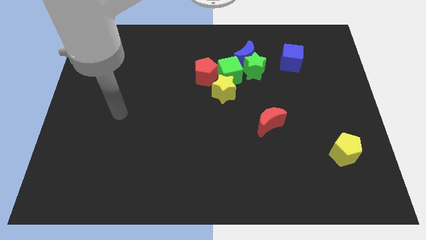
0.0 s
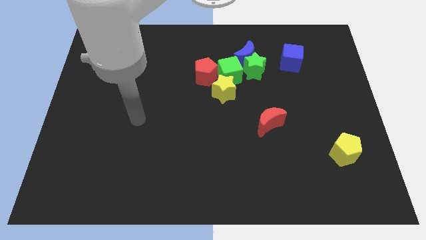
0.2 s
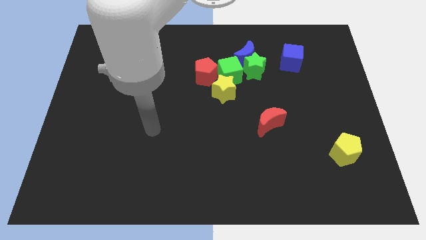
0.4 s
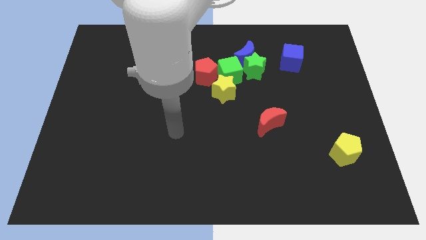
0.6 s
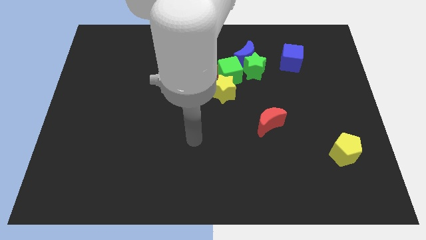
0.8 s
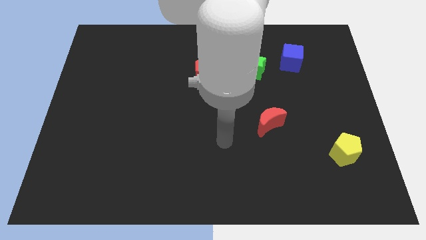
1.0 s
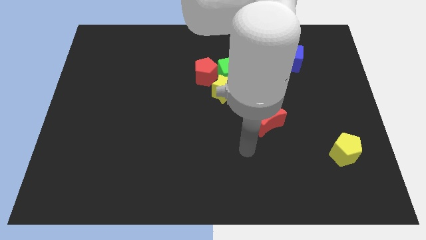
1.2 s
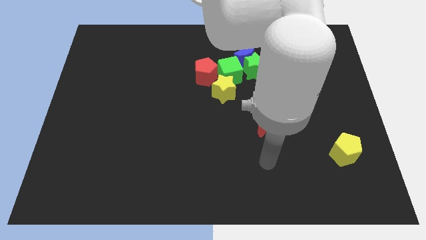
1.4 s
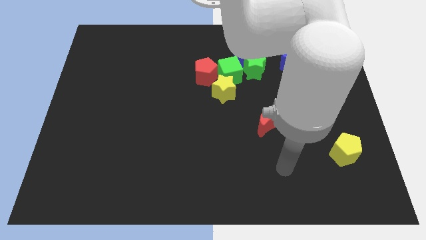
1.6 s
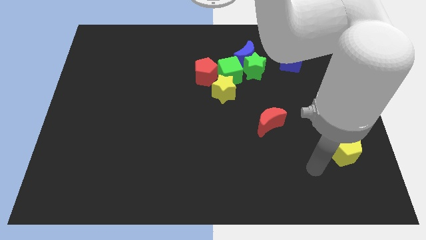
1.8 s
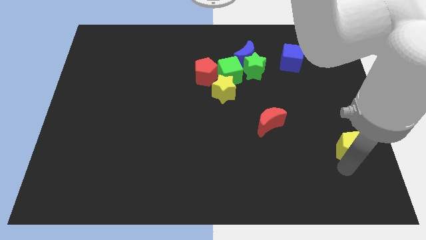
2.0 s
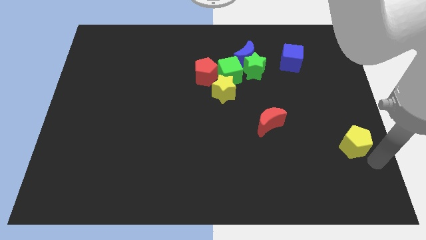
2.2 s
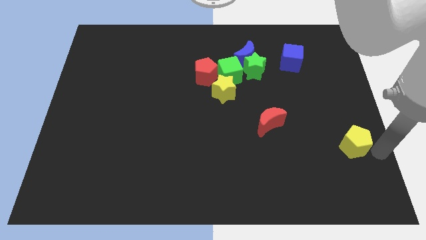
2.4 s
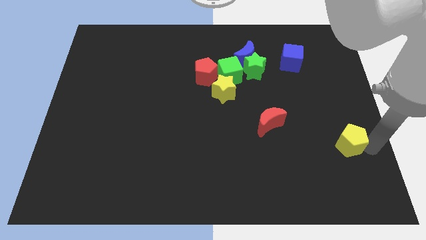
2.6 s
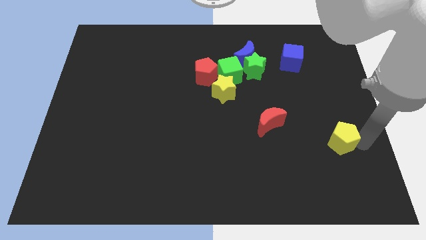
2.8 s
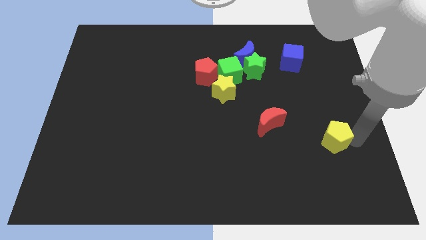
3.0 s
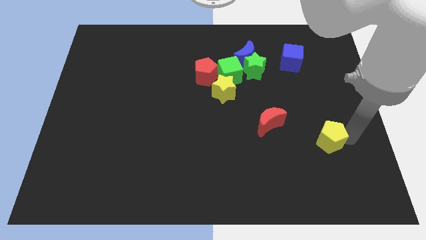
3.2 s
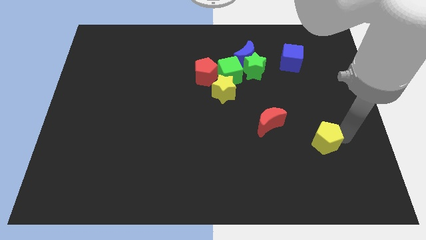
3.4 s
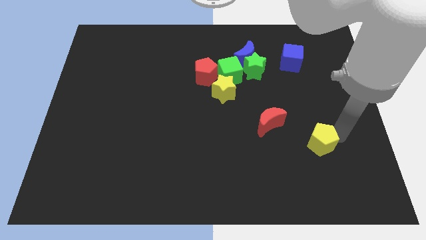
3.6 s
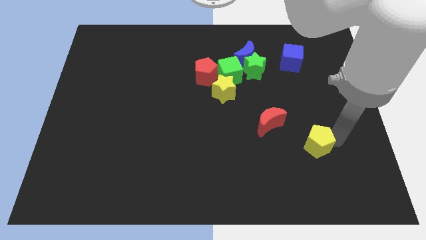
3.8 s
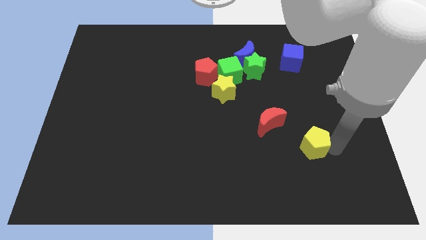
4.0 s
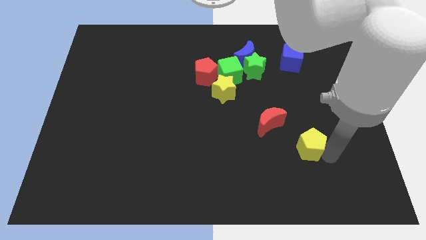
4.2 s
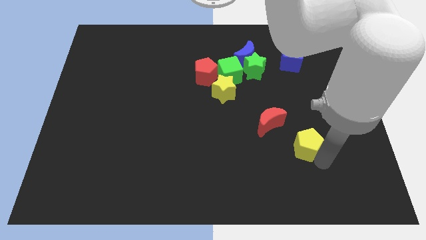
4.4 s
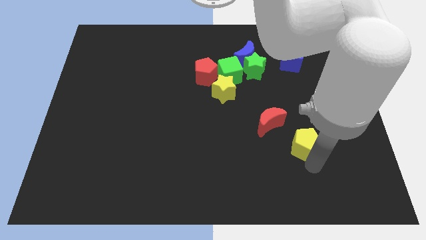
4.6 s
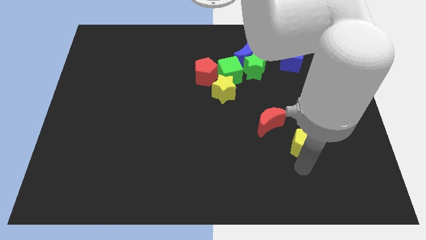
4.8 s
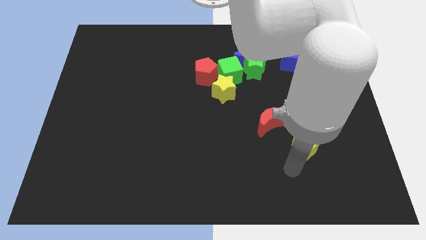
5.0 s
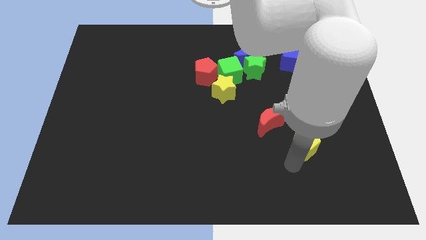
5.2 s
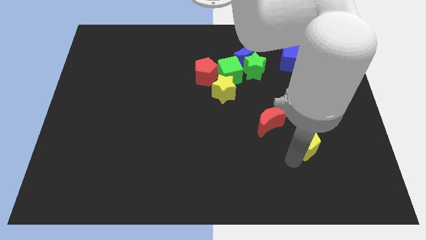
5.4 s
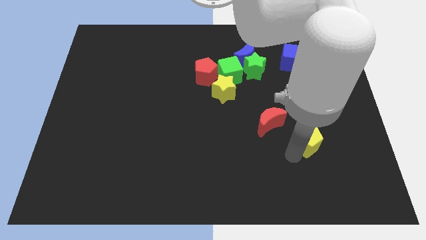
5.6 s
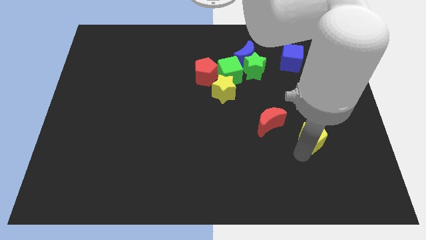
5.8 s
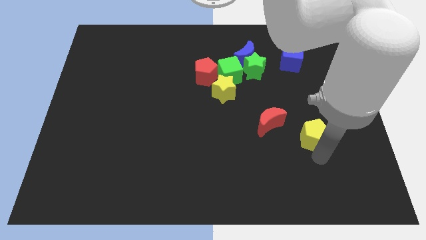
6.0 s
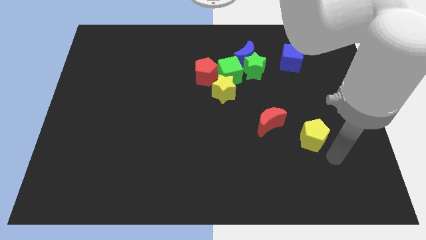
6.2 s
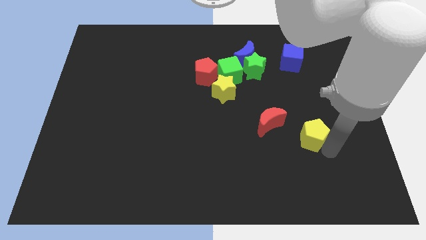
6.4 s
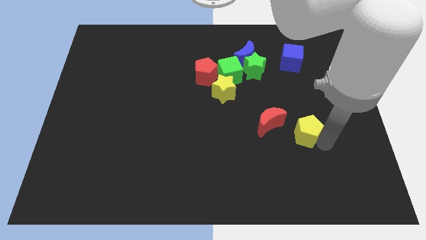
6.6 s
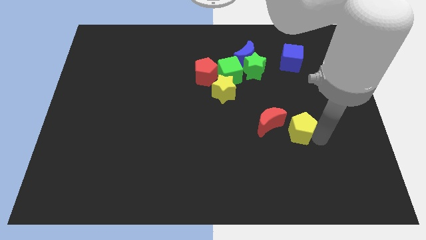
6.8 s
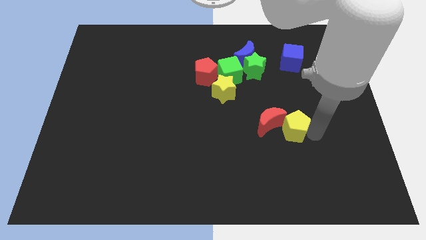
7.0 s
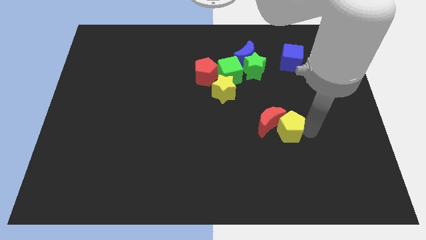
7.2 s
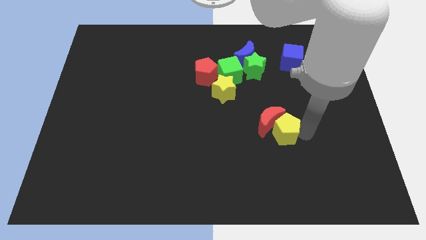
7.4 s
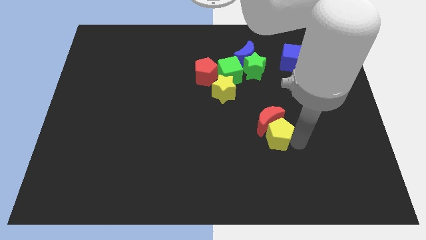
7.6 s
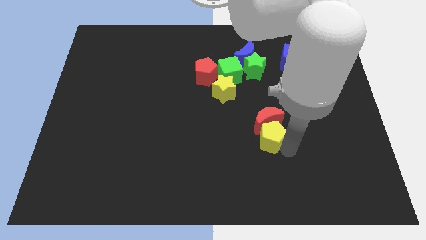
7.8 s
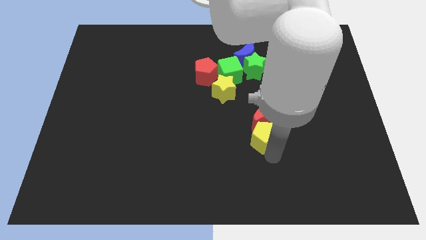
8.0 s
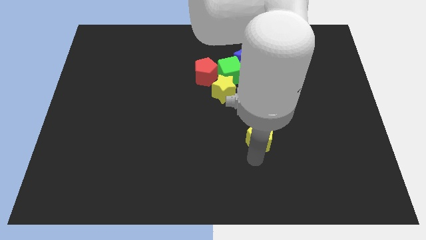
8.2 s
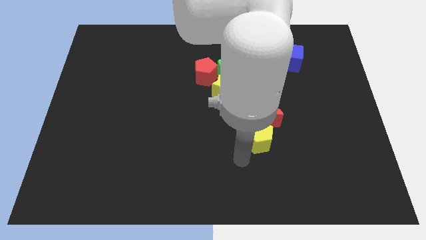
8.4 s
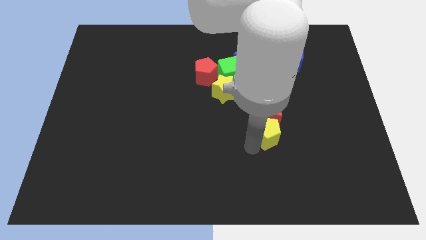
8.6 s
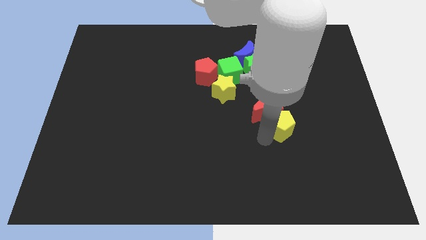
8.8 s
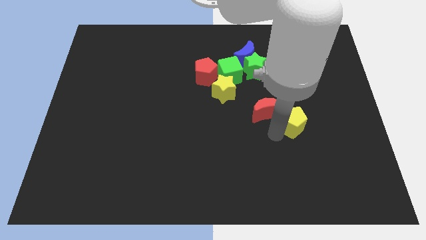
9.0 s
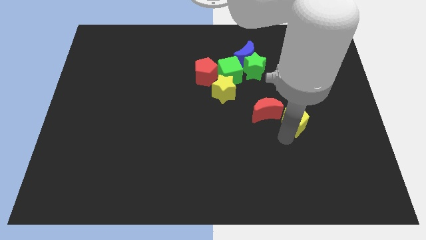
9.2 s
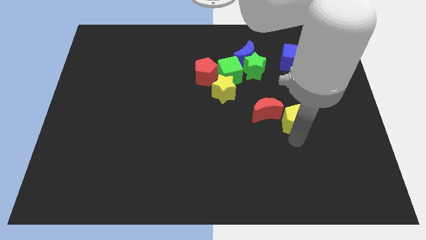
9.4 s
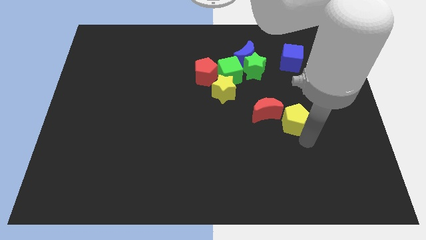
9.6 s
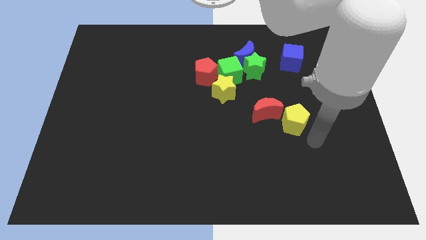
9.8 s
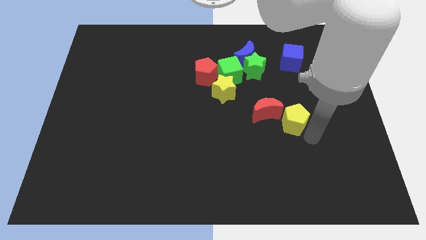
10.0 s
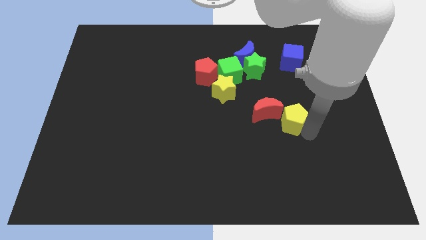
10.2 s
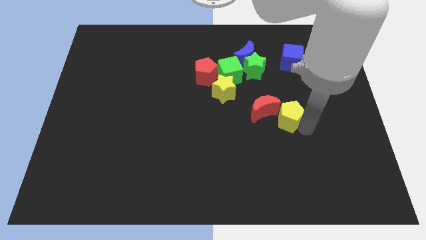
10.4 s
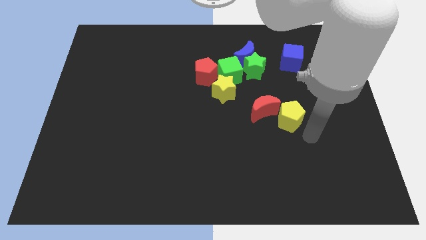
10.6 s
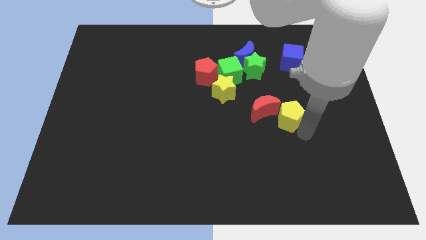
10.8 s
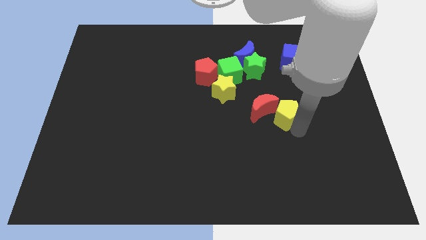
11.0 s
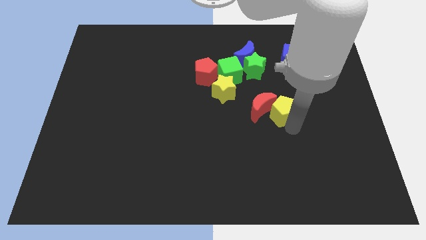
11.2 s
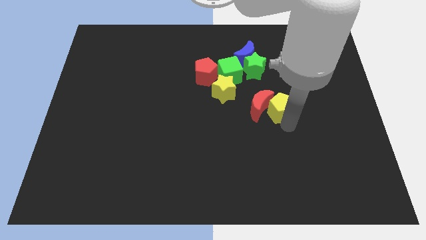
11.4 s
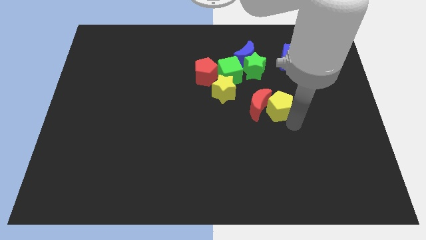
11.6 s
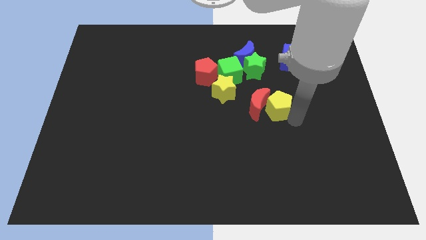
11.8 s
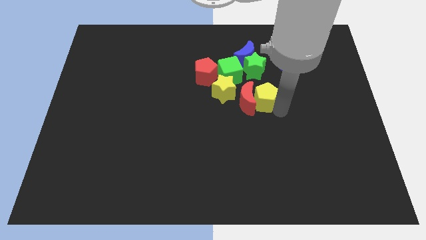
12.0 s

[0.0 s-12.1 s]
slide the yellow pentagon to the bottom of the blue moon

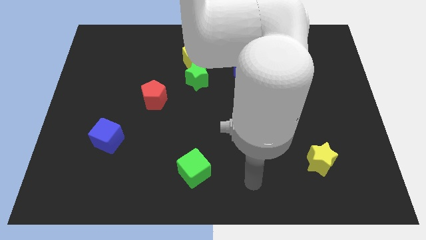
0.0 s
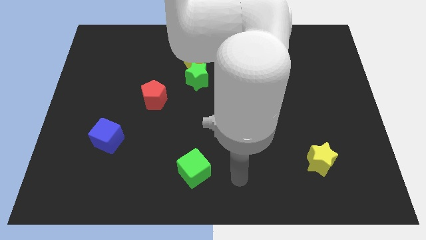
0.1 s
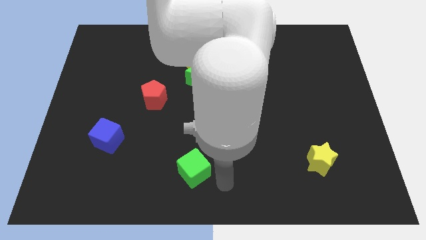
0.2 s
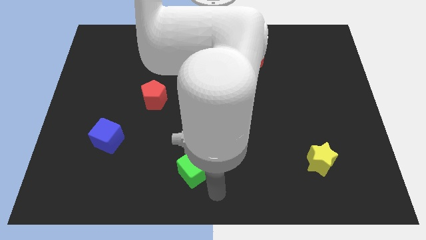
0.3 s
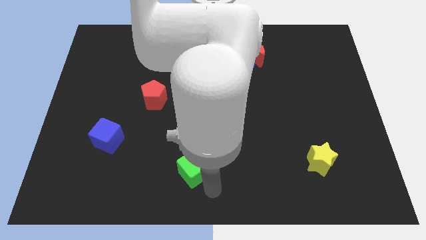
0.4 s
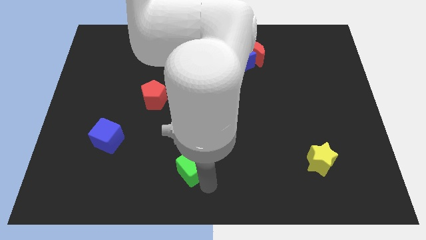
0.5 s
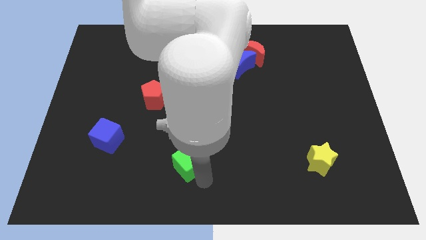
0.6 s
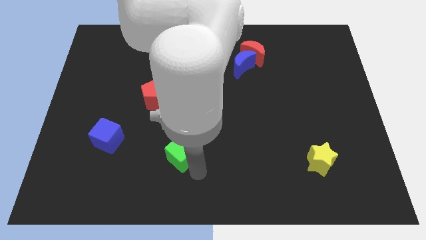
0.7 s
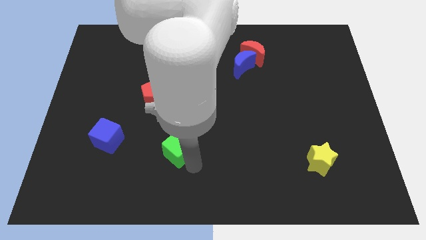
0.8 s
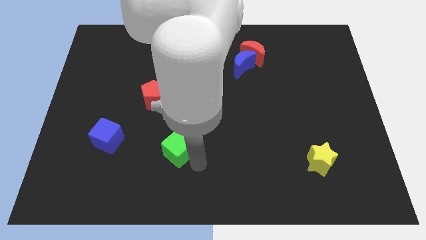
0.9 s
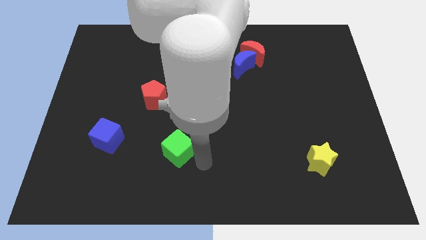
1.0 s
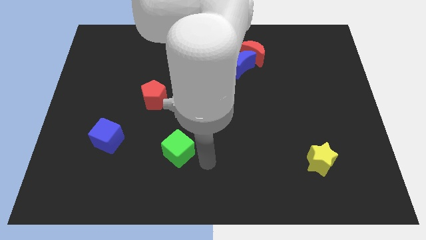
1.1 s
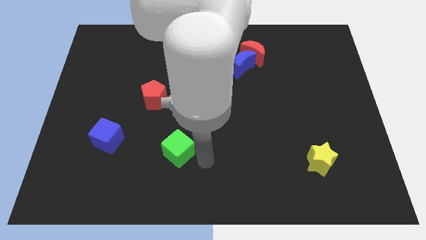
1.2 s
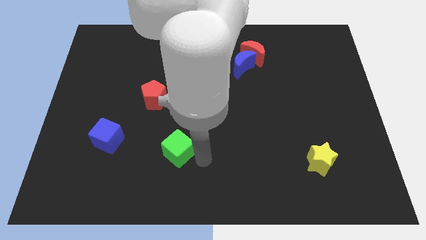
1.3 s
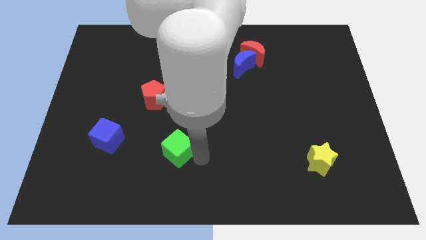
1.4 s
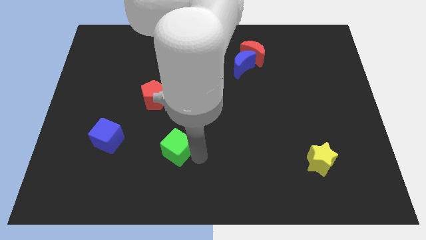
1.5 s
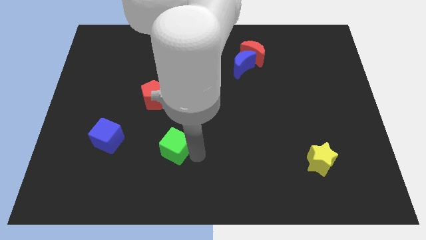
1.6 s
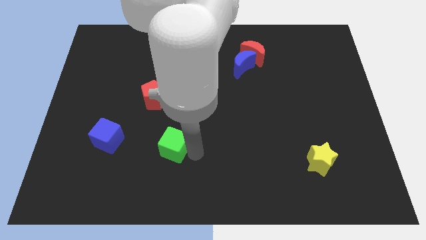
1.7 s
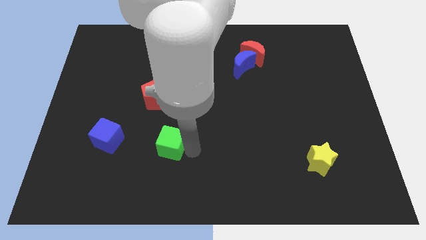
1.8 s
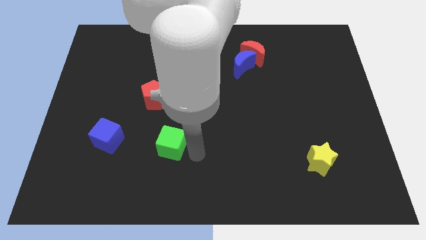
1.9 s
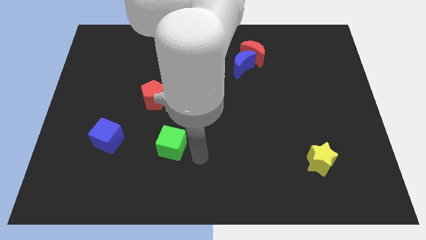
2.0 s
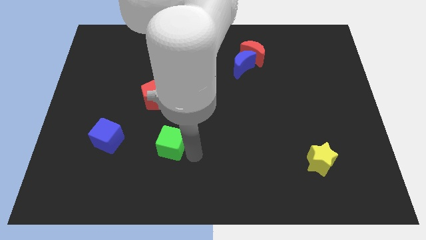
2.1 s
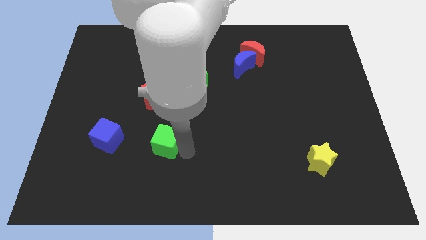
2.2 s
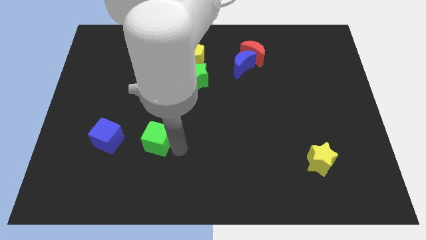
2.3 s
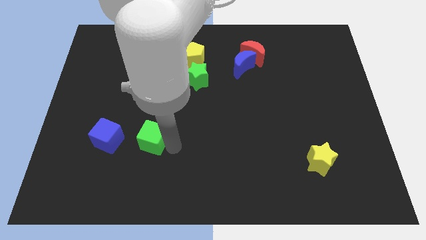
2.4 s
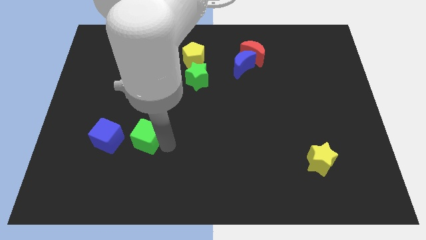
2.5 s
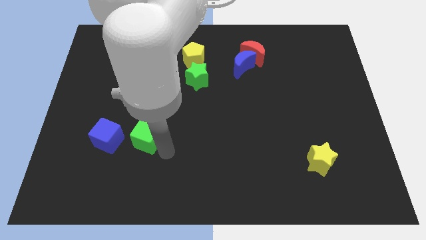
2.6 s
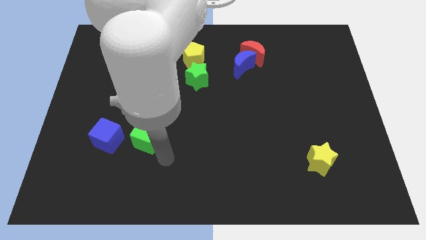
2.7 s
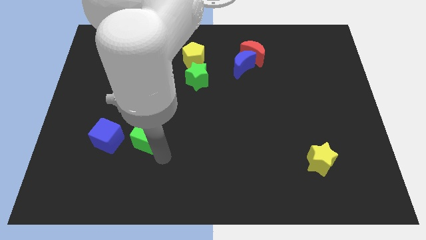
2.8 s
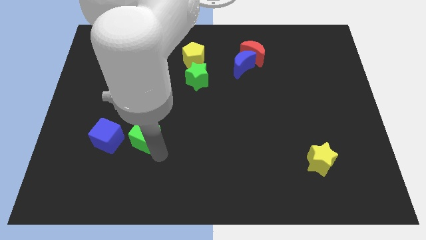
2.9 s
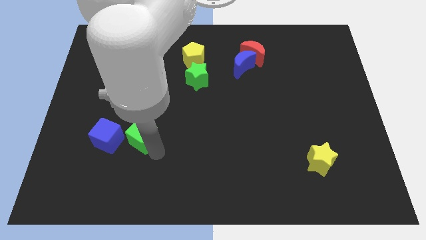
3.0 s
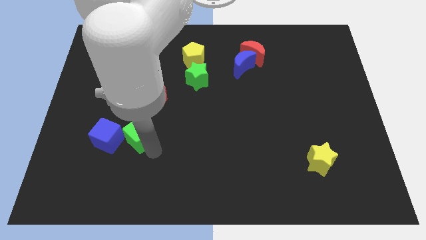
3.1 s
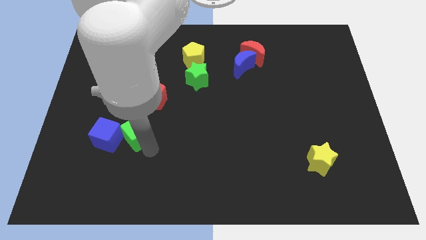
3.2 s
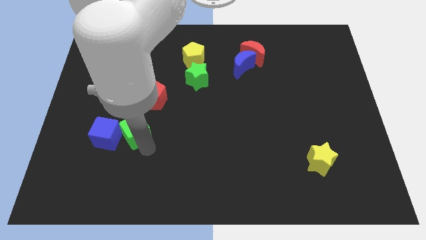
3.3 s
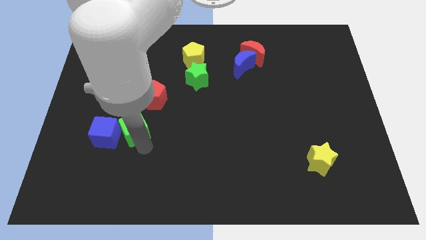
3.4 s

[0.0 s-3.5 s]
move the green cube diagonally down and to the left of the red pentagon
